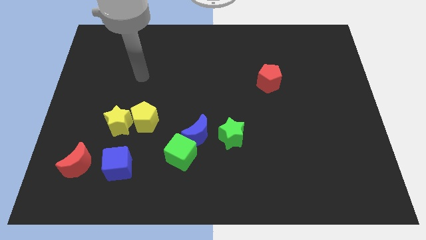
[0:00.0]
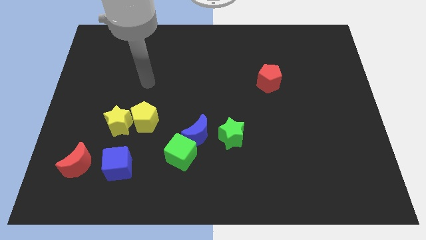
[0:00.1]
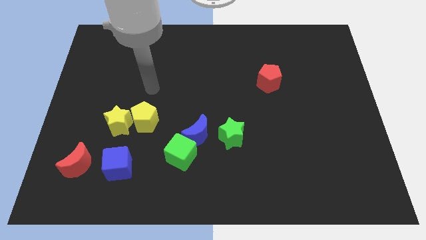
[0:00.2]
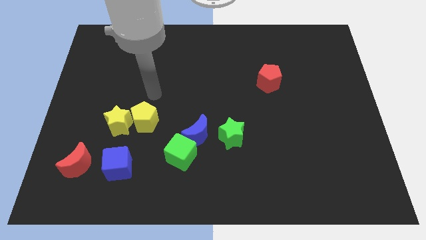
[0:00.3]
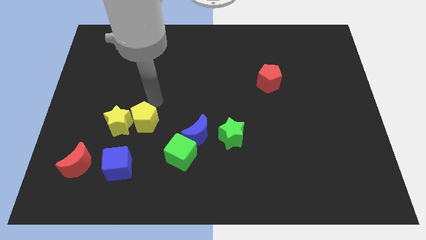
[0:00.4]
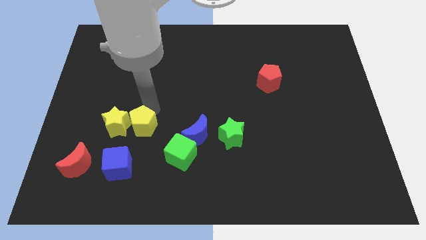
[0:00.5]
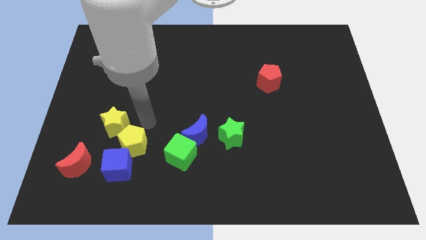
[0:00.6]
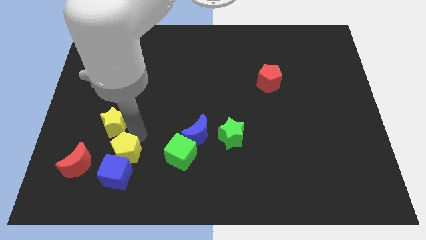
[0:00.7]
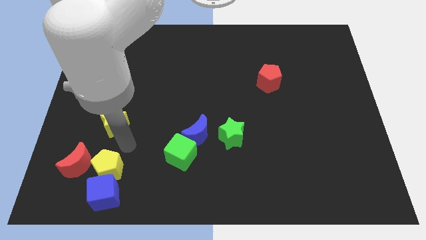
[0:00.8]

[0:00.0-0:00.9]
separate the yellow star from the yellow pentagon

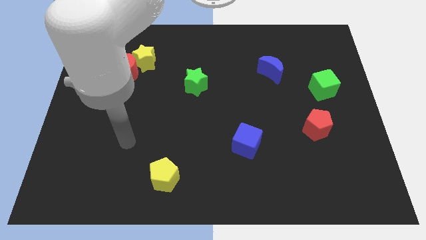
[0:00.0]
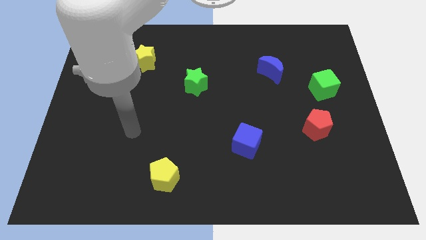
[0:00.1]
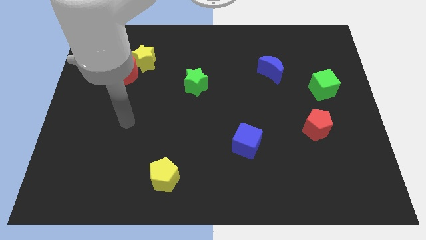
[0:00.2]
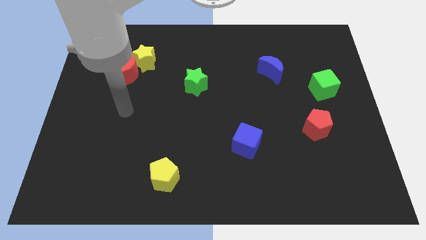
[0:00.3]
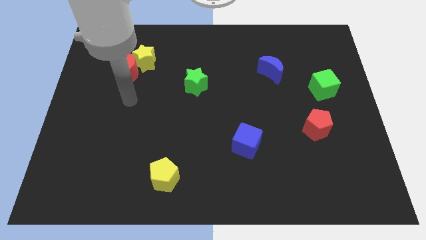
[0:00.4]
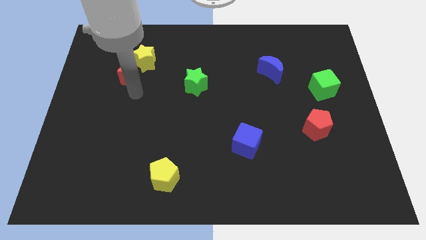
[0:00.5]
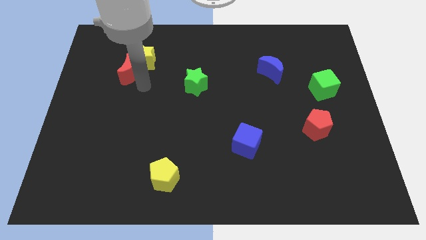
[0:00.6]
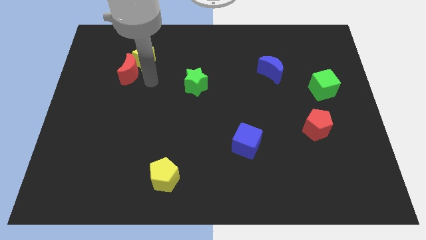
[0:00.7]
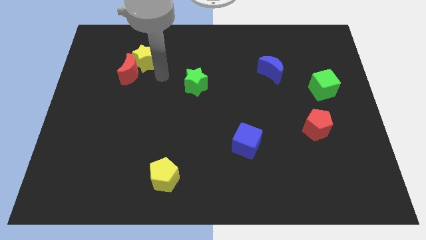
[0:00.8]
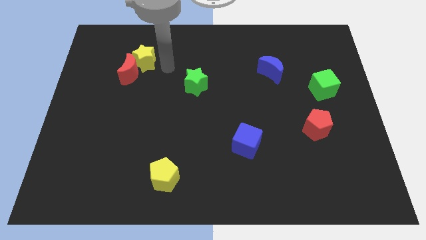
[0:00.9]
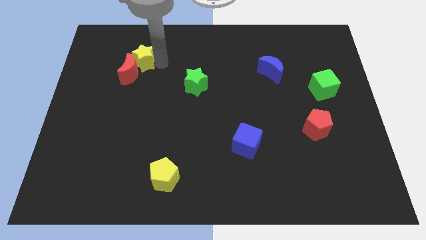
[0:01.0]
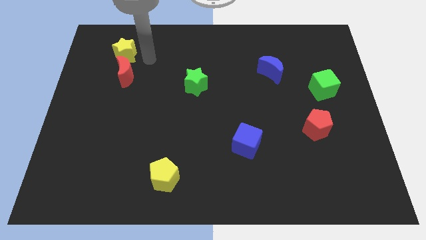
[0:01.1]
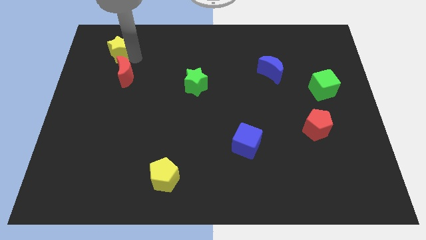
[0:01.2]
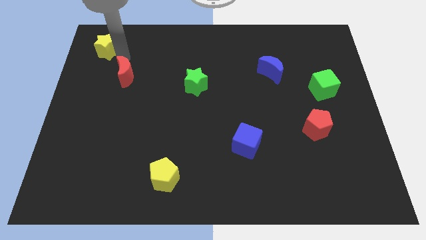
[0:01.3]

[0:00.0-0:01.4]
separate the red moon from the yellow star

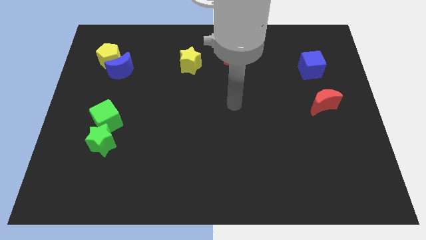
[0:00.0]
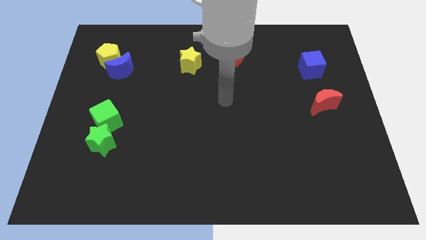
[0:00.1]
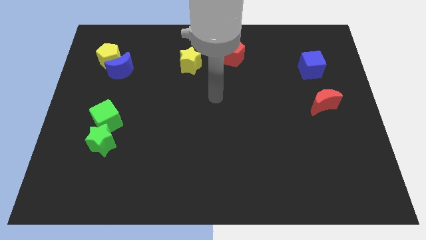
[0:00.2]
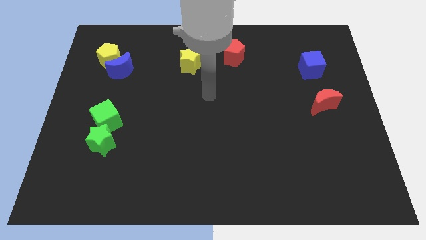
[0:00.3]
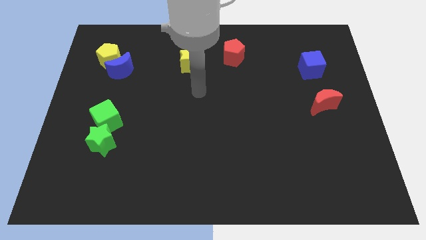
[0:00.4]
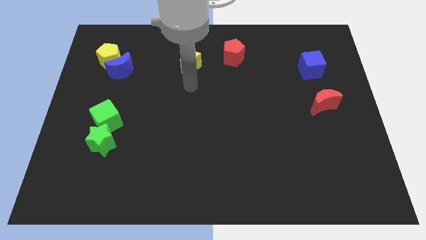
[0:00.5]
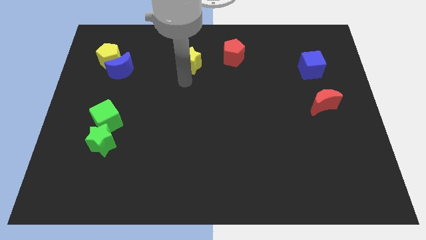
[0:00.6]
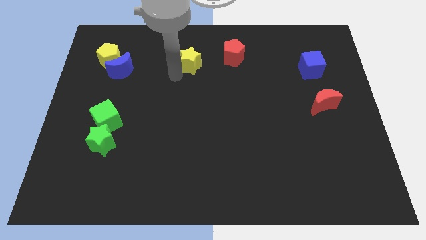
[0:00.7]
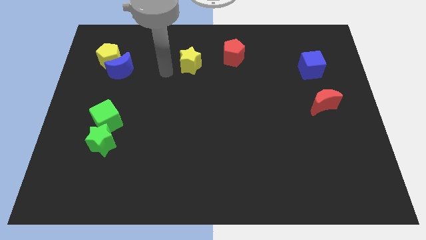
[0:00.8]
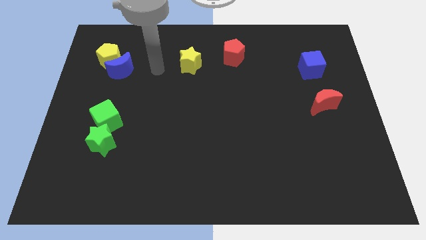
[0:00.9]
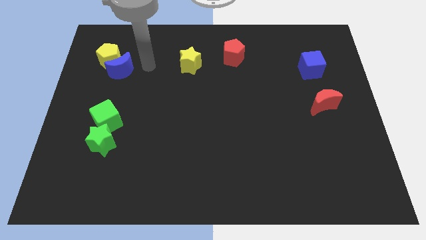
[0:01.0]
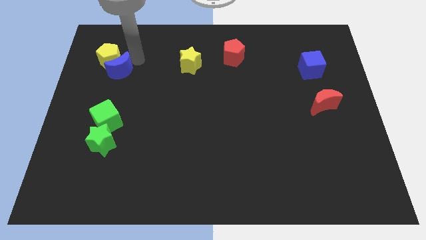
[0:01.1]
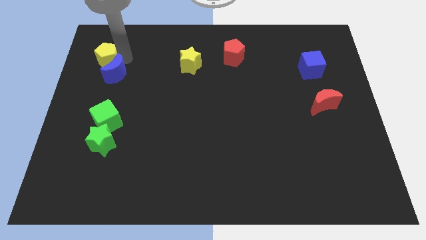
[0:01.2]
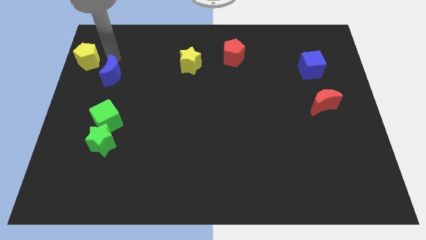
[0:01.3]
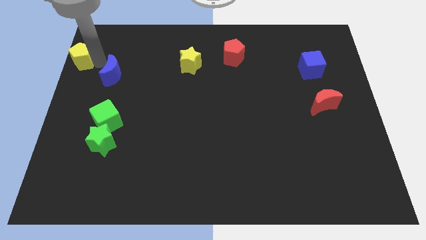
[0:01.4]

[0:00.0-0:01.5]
separate the blue moon from the yellow pentagon

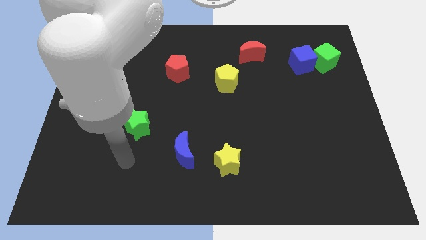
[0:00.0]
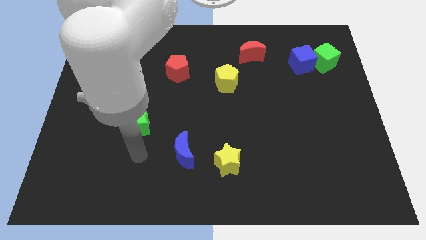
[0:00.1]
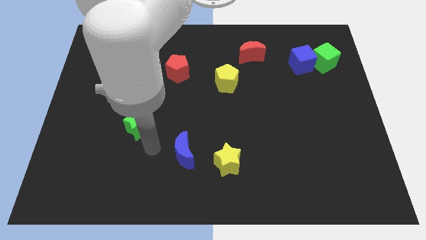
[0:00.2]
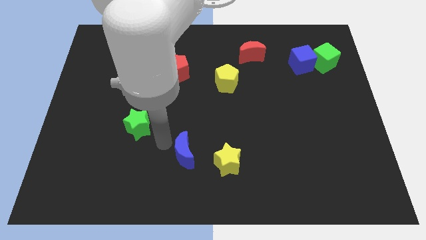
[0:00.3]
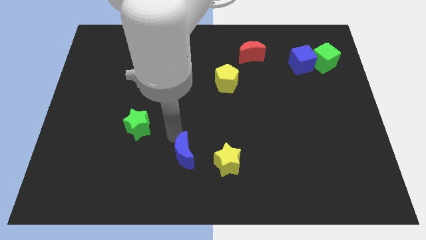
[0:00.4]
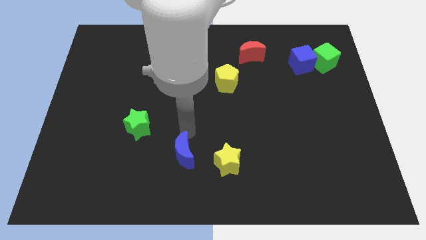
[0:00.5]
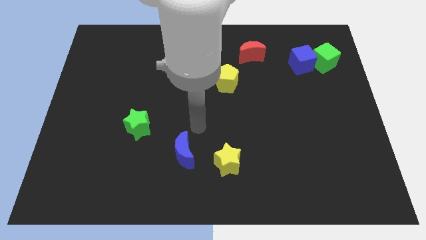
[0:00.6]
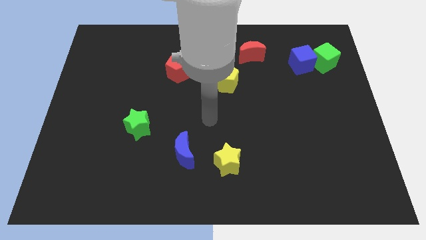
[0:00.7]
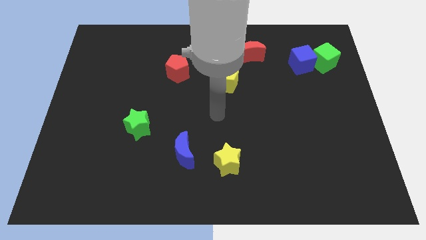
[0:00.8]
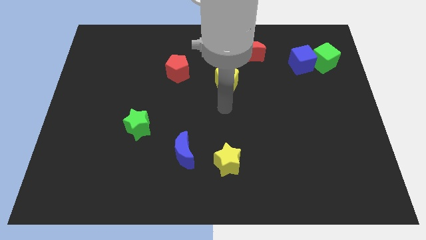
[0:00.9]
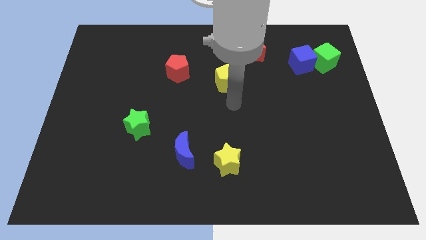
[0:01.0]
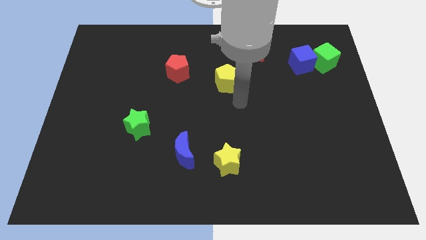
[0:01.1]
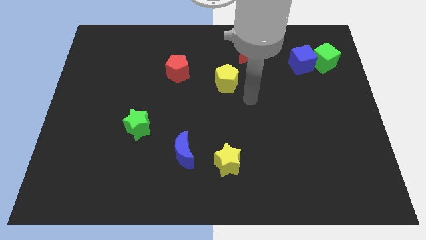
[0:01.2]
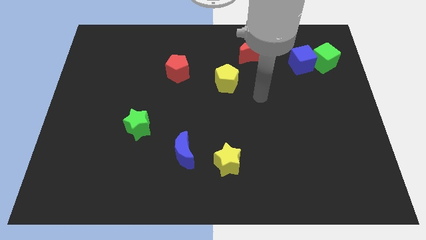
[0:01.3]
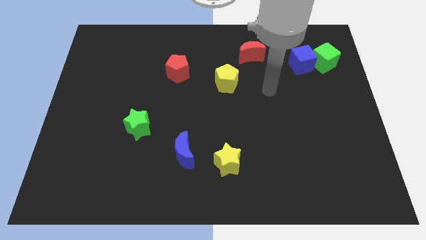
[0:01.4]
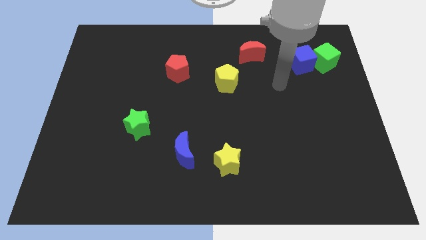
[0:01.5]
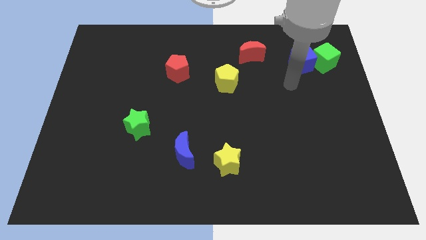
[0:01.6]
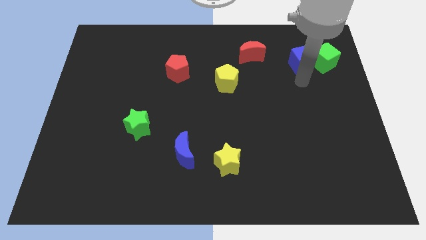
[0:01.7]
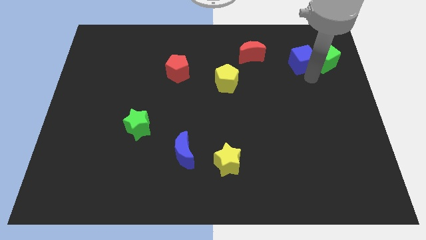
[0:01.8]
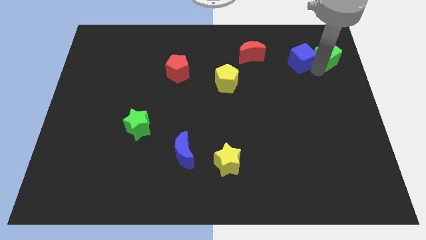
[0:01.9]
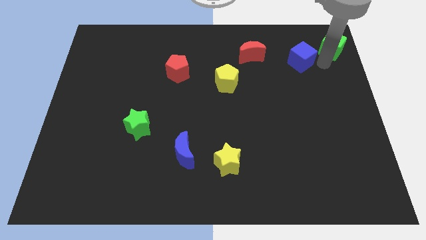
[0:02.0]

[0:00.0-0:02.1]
separate the blue cube from the green cube

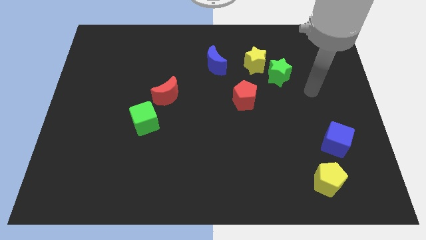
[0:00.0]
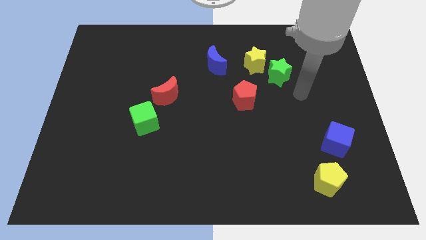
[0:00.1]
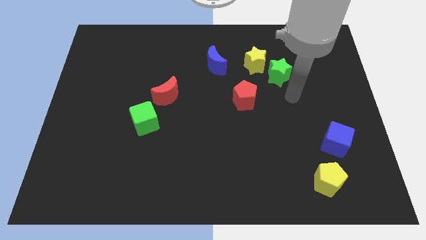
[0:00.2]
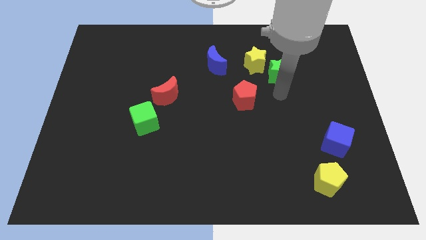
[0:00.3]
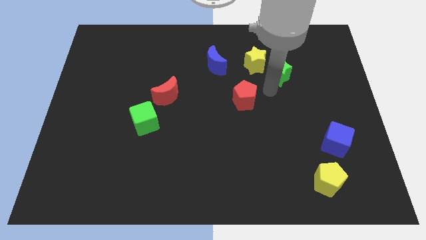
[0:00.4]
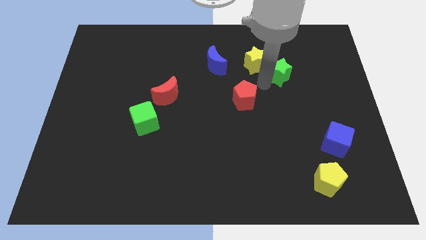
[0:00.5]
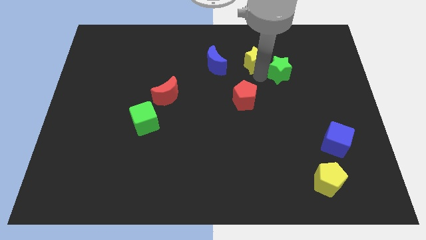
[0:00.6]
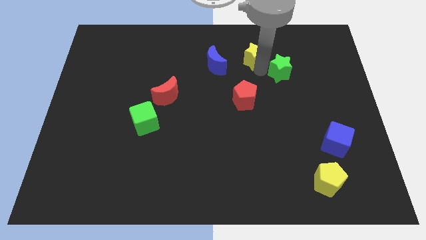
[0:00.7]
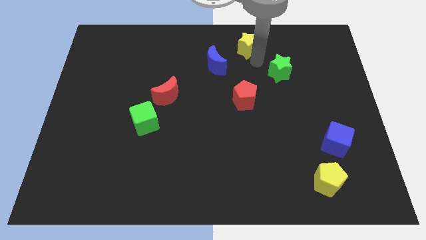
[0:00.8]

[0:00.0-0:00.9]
separate the green star from the yellow star

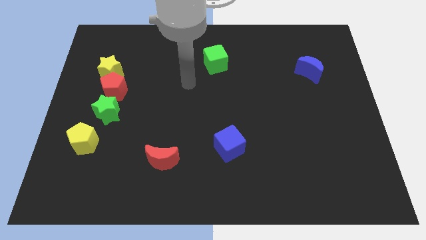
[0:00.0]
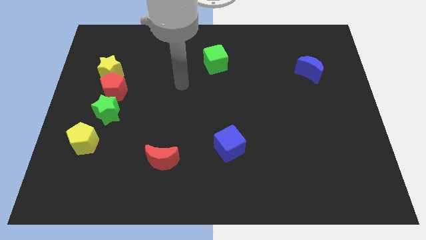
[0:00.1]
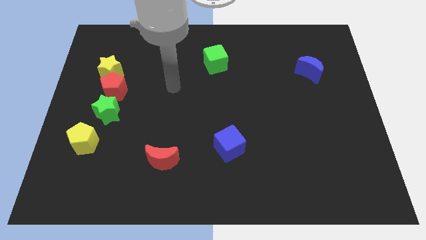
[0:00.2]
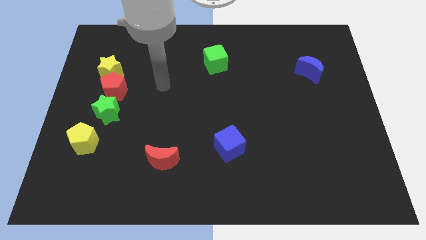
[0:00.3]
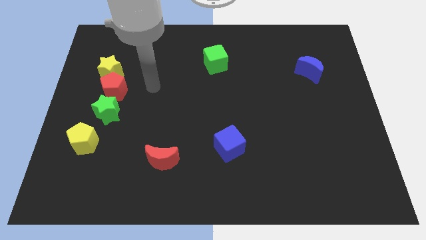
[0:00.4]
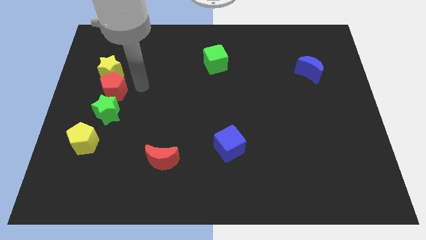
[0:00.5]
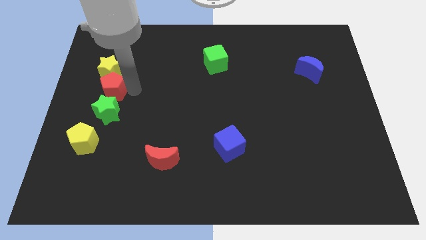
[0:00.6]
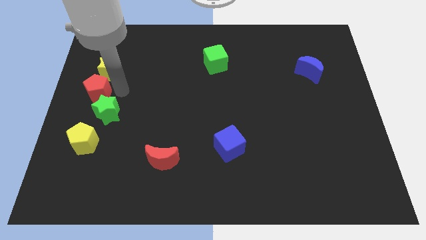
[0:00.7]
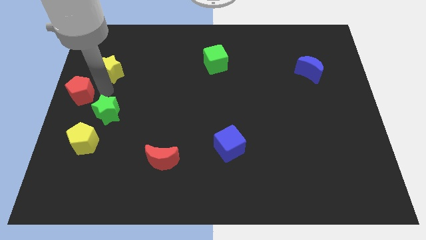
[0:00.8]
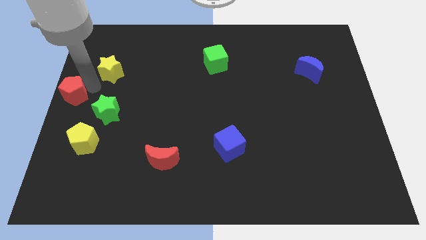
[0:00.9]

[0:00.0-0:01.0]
pull the yellow star apart from the red pentagon

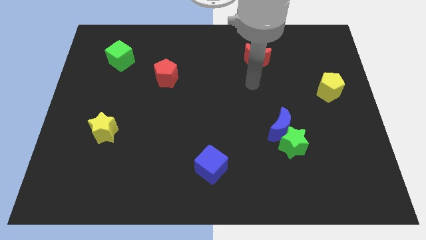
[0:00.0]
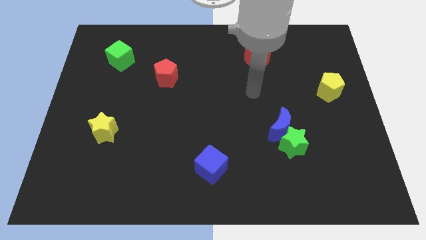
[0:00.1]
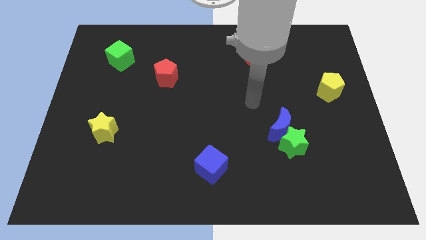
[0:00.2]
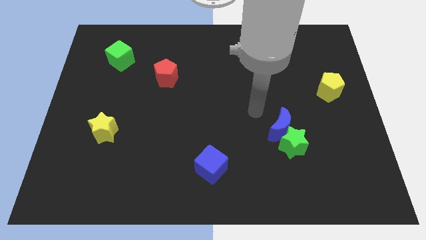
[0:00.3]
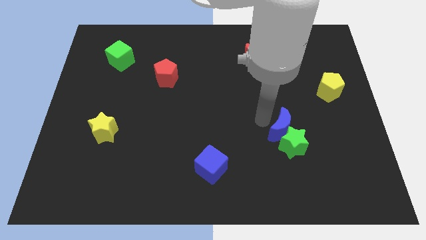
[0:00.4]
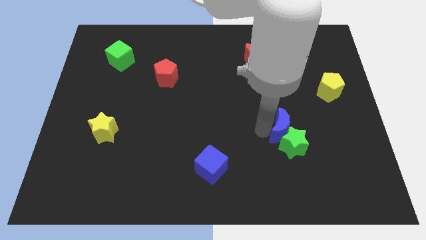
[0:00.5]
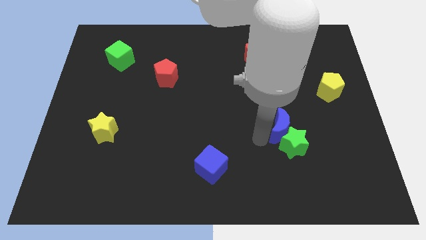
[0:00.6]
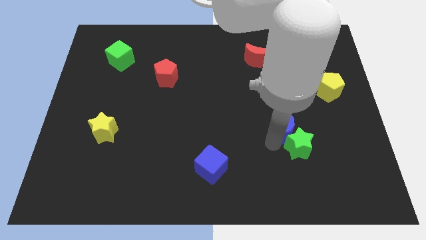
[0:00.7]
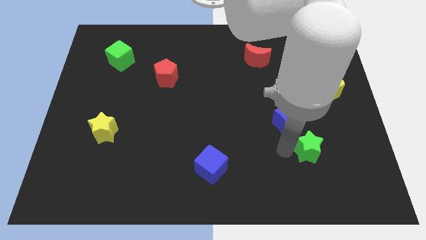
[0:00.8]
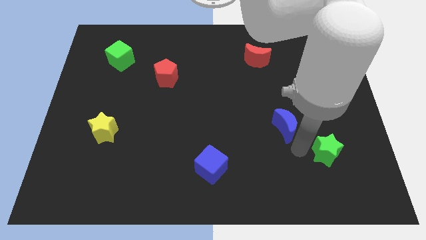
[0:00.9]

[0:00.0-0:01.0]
separate the blue moon from the green star

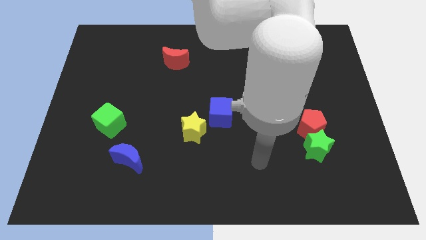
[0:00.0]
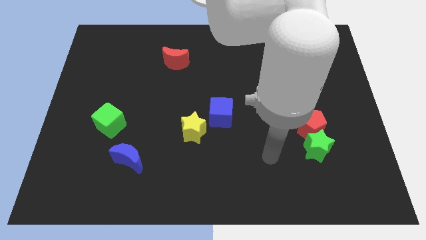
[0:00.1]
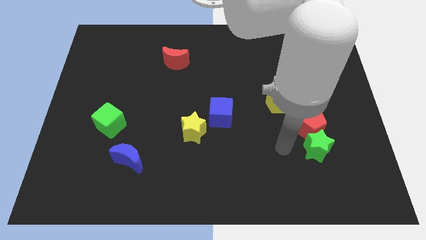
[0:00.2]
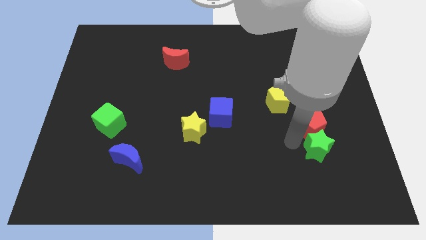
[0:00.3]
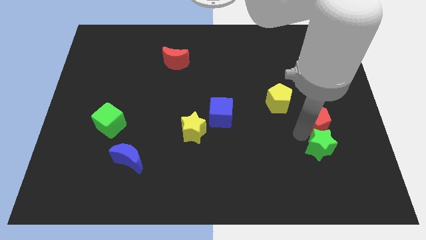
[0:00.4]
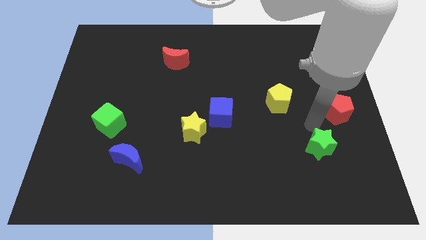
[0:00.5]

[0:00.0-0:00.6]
move the green star away from the red pentagon

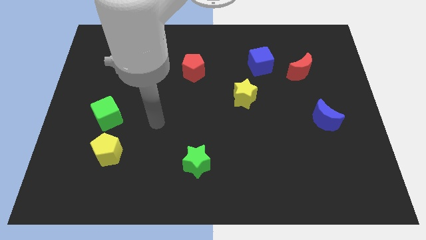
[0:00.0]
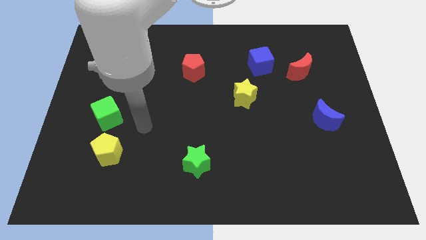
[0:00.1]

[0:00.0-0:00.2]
pull the green cube apart from the yellow pentagon
